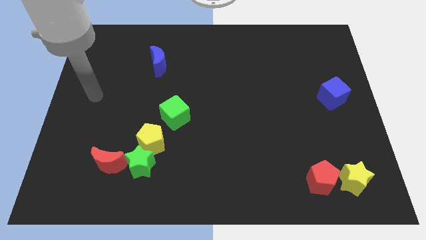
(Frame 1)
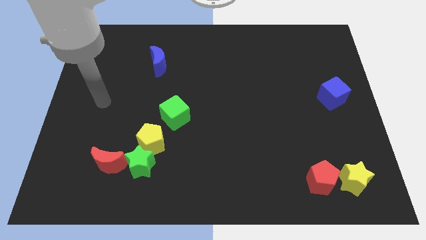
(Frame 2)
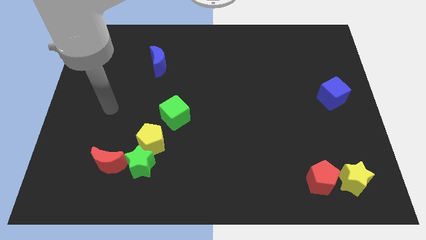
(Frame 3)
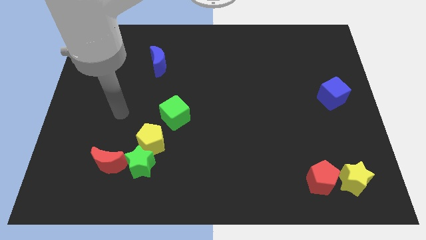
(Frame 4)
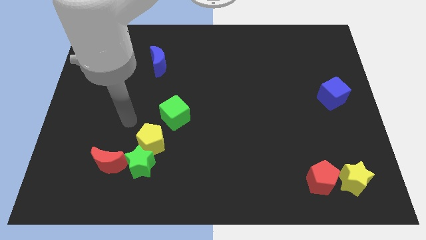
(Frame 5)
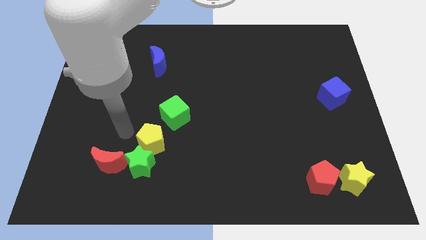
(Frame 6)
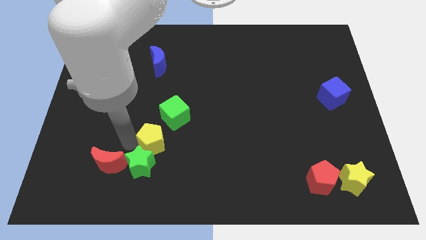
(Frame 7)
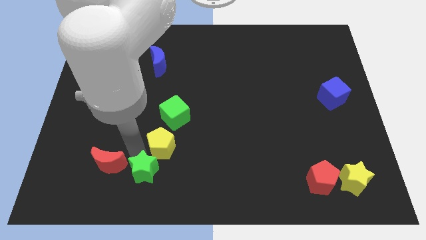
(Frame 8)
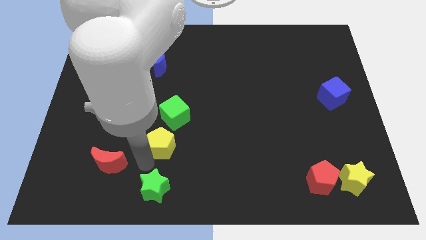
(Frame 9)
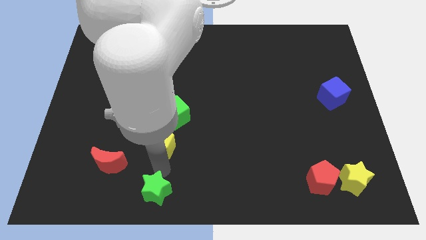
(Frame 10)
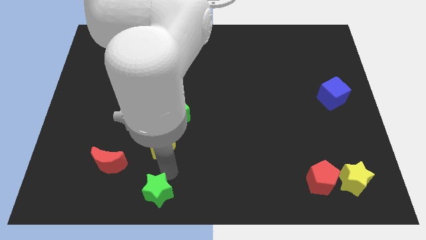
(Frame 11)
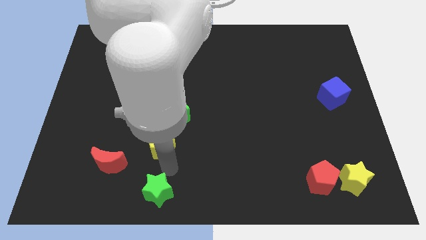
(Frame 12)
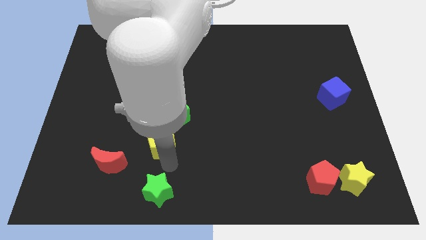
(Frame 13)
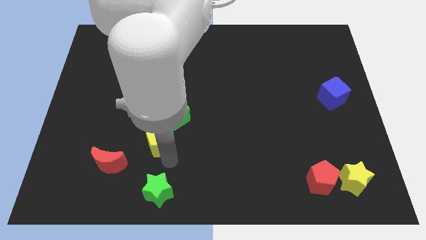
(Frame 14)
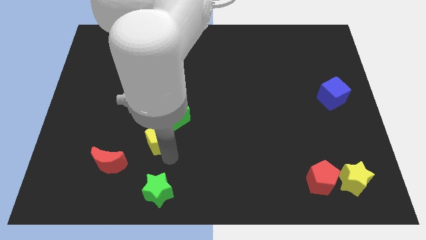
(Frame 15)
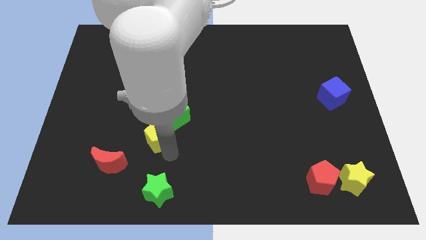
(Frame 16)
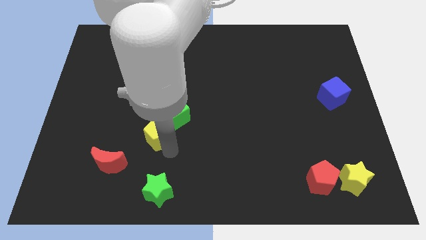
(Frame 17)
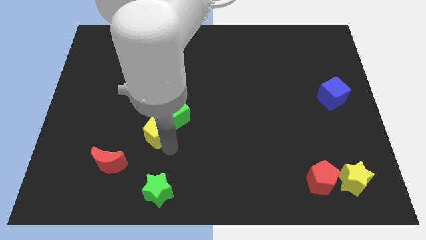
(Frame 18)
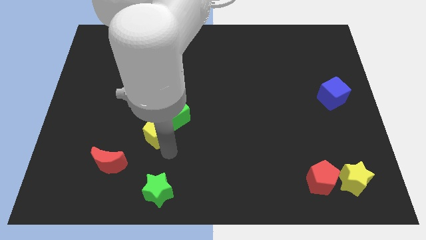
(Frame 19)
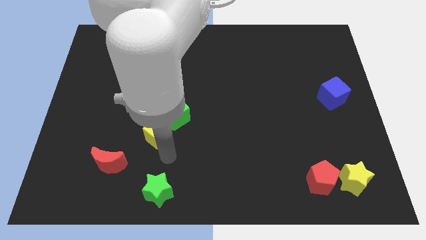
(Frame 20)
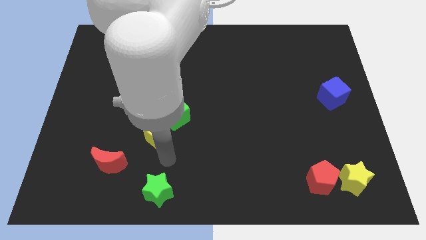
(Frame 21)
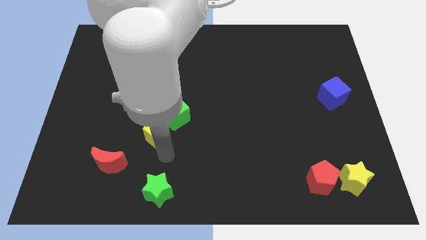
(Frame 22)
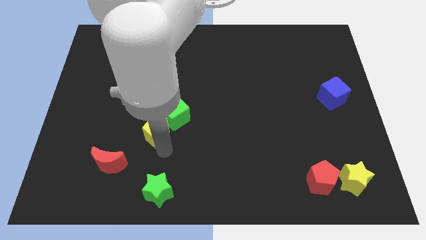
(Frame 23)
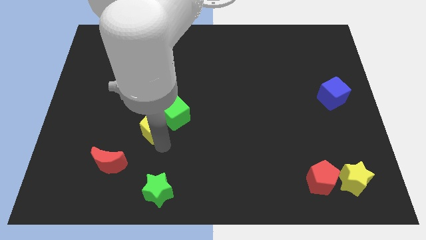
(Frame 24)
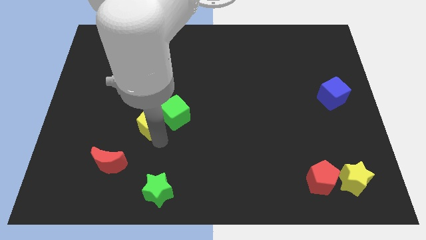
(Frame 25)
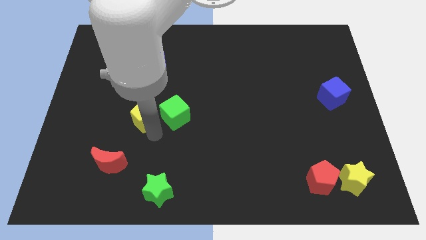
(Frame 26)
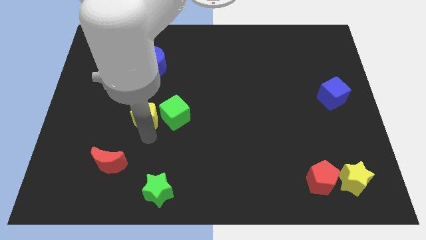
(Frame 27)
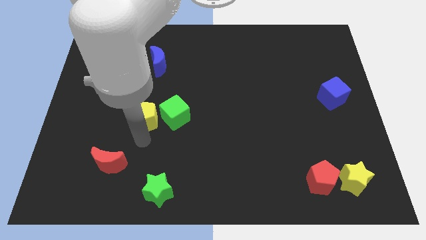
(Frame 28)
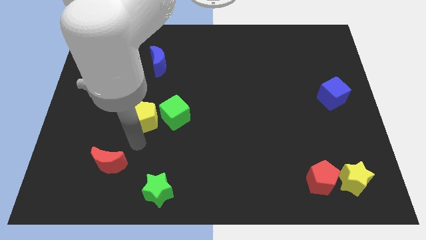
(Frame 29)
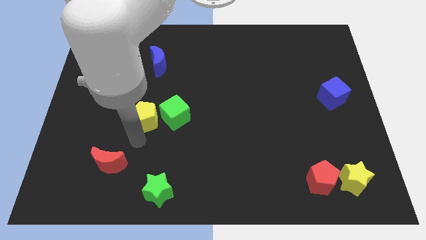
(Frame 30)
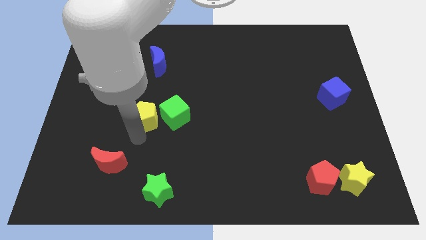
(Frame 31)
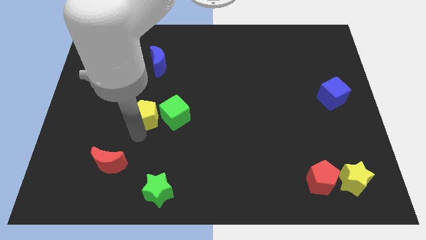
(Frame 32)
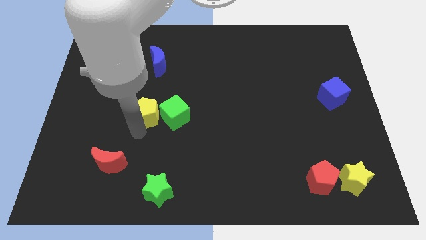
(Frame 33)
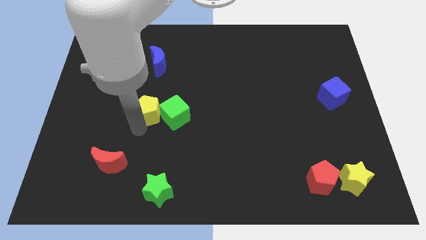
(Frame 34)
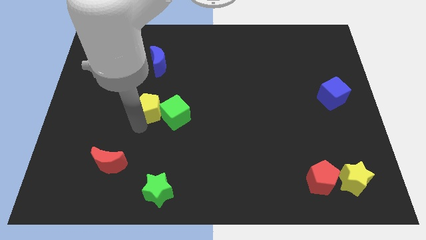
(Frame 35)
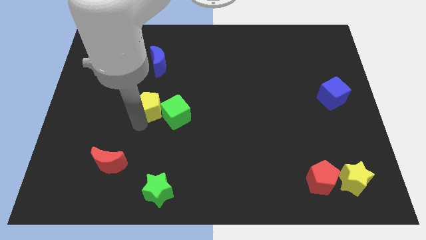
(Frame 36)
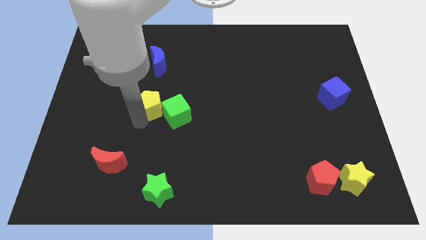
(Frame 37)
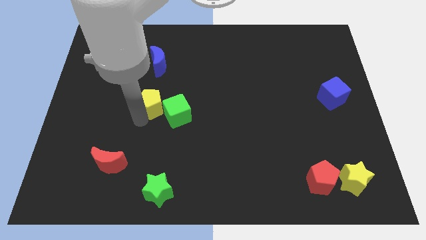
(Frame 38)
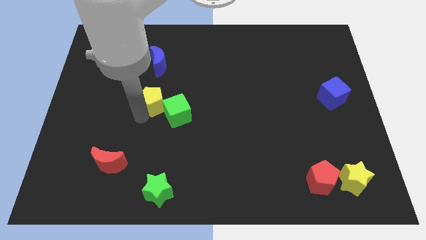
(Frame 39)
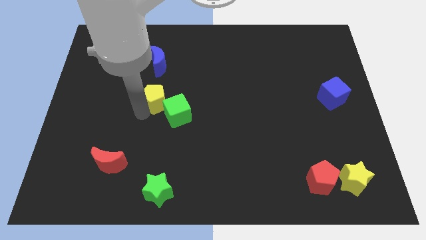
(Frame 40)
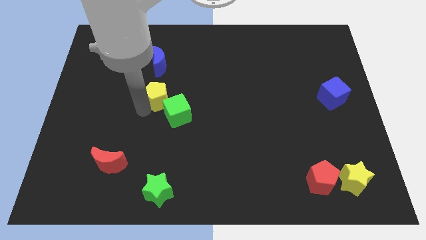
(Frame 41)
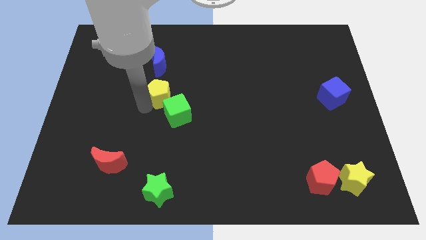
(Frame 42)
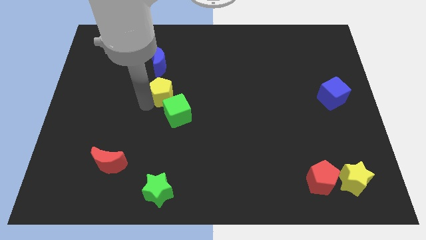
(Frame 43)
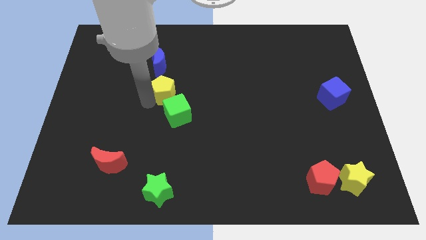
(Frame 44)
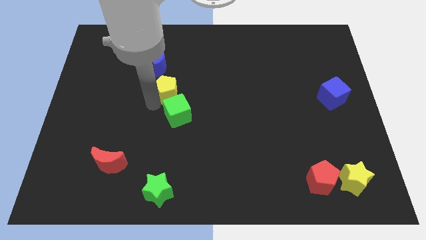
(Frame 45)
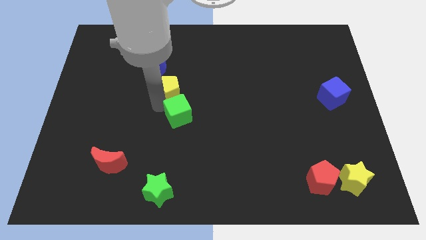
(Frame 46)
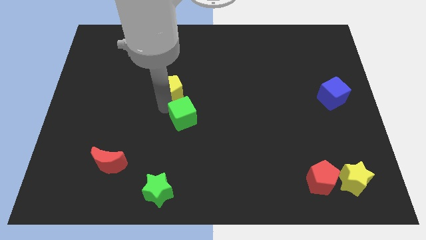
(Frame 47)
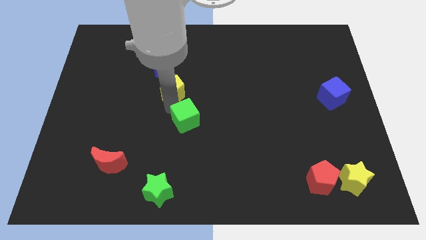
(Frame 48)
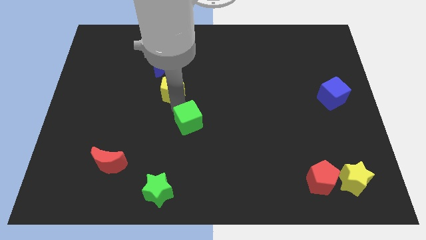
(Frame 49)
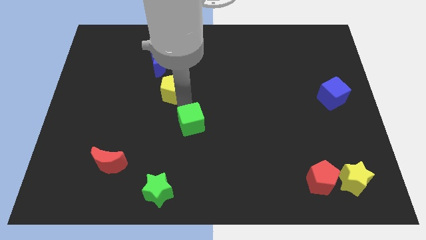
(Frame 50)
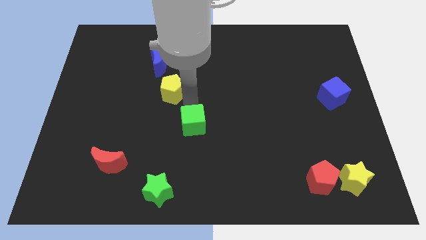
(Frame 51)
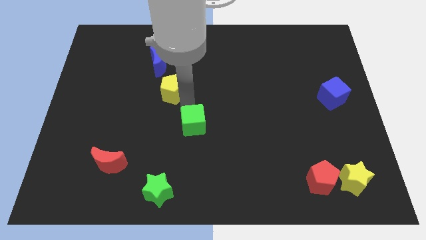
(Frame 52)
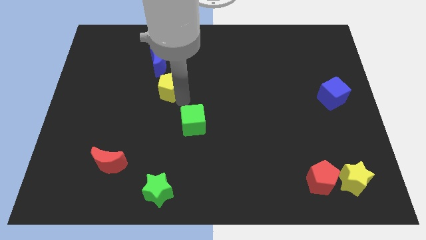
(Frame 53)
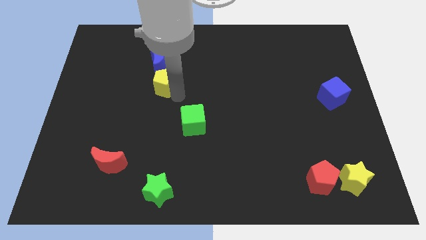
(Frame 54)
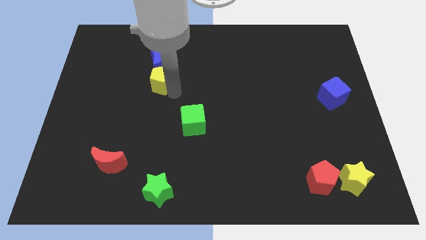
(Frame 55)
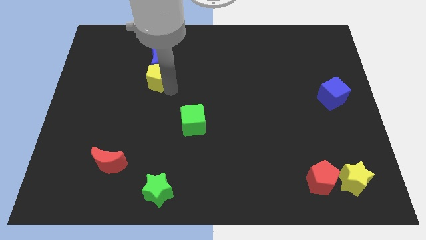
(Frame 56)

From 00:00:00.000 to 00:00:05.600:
move the yellow pentagon next to the blue moon

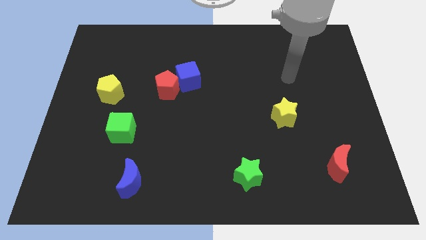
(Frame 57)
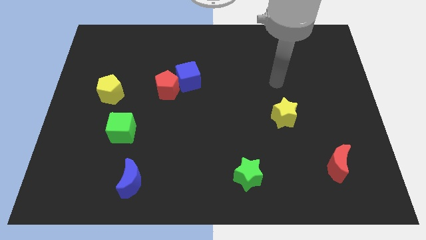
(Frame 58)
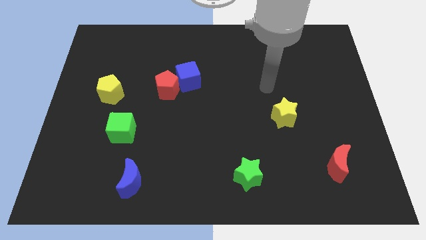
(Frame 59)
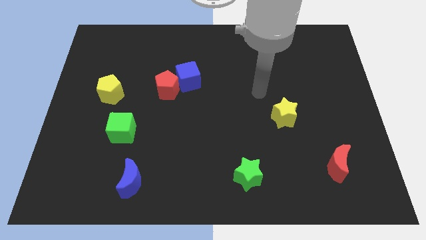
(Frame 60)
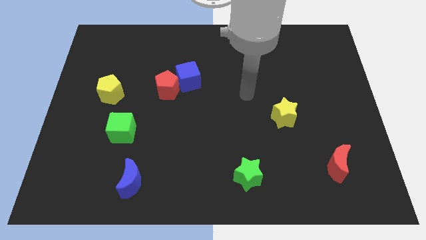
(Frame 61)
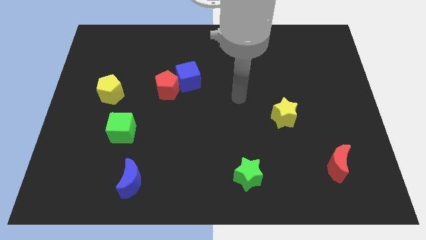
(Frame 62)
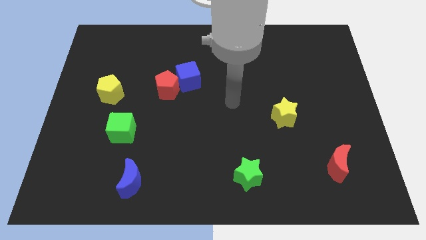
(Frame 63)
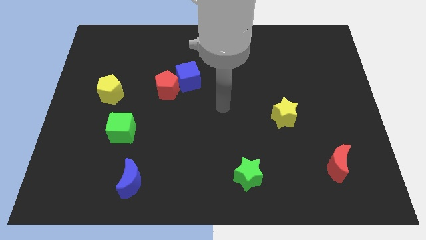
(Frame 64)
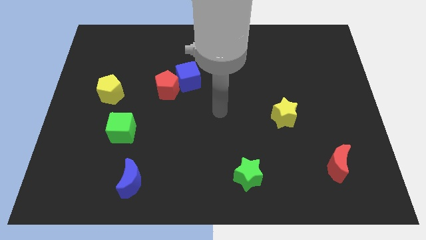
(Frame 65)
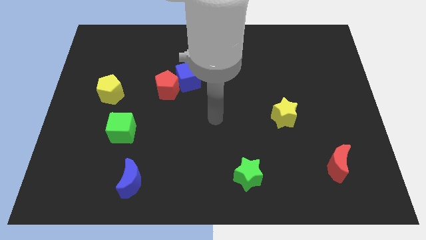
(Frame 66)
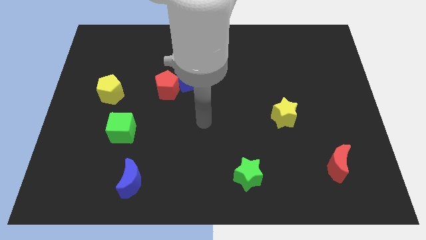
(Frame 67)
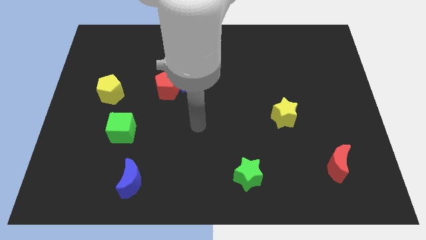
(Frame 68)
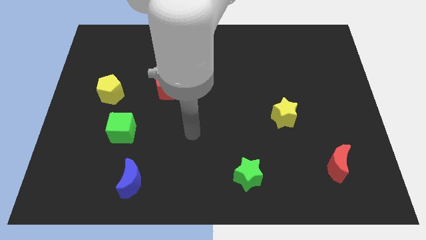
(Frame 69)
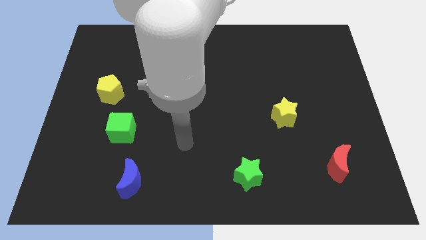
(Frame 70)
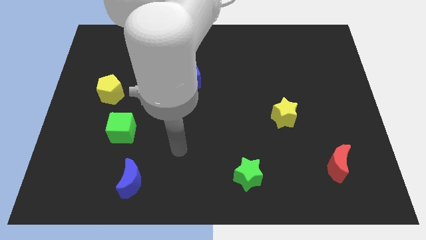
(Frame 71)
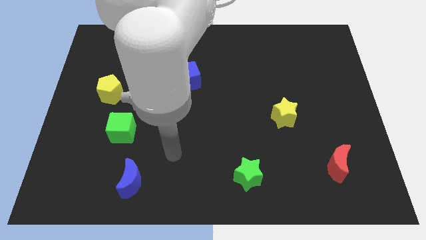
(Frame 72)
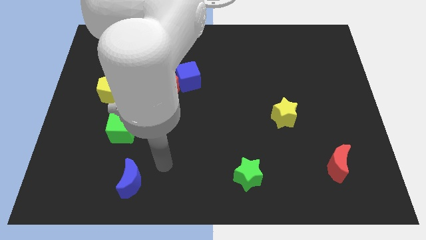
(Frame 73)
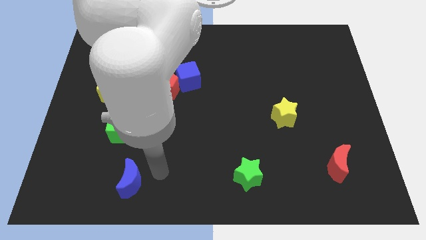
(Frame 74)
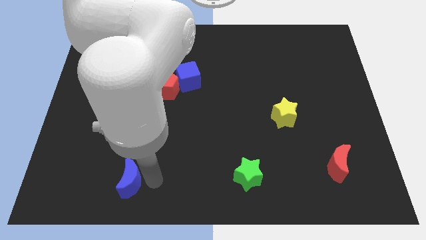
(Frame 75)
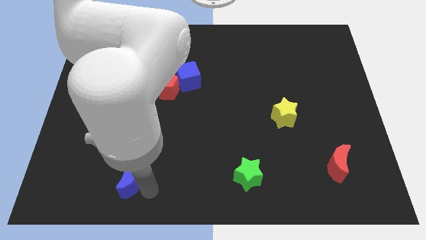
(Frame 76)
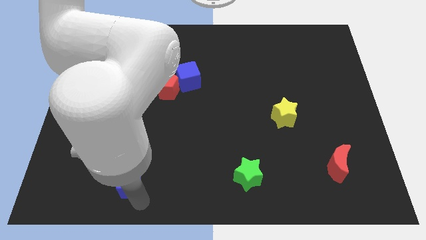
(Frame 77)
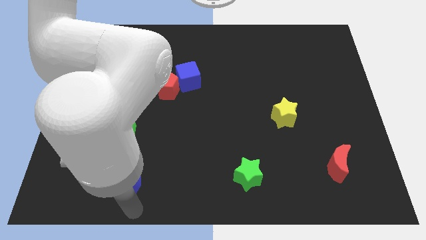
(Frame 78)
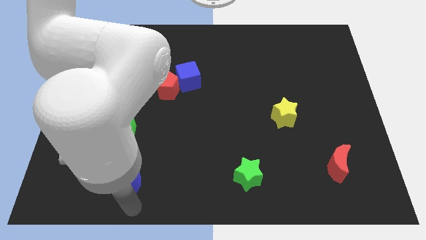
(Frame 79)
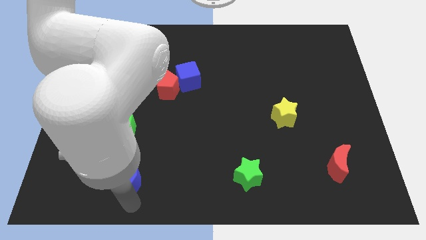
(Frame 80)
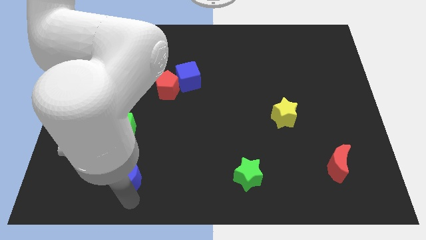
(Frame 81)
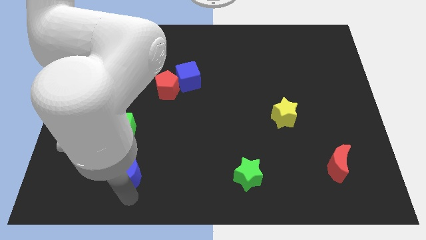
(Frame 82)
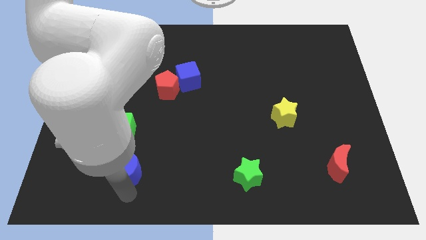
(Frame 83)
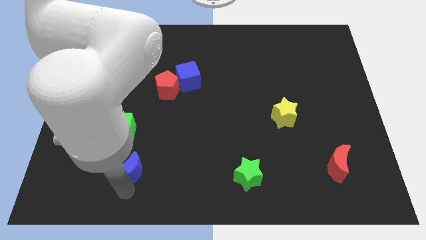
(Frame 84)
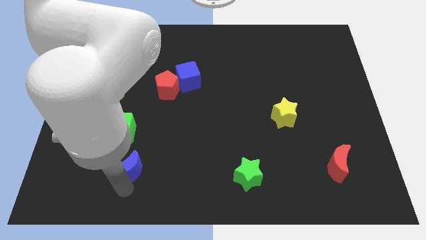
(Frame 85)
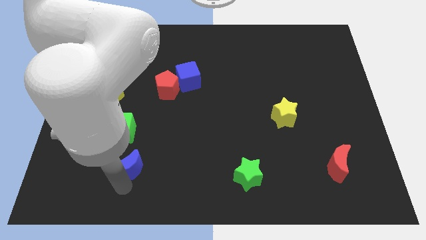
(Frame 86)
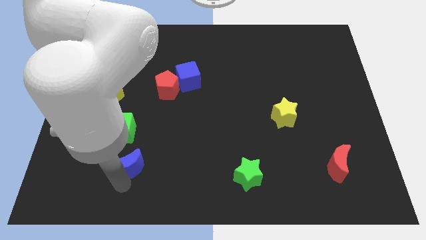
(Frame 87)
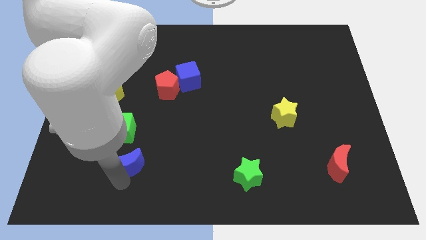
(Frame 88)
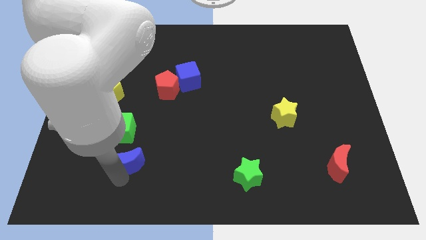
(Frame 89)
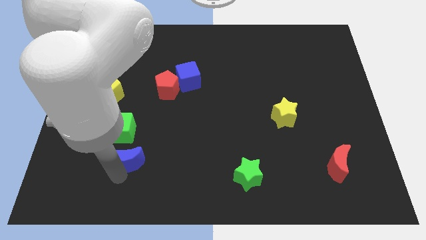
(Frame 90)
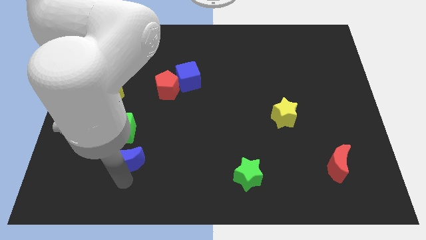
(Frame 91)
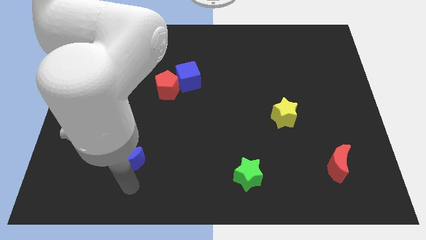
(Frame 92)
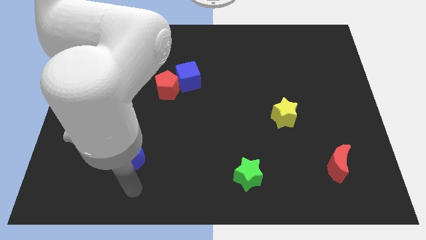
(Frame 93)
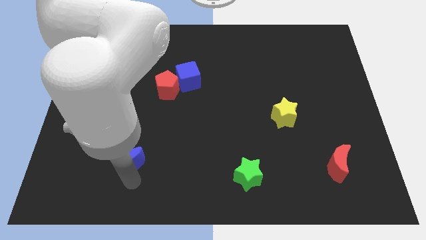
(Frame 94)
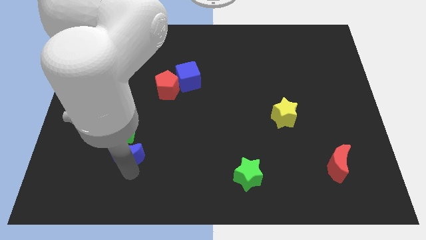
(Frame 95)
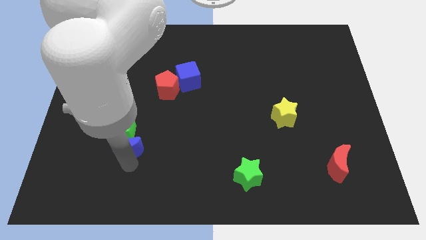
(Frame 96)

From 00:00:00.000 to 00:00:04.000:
put the blue moon next to the green cube
